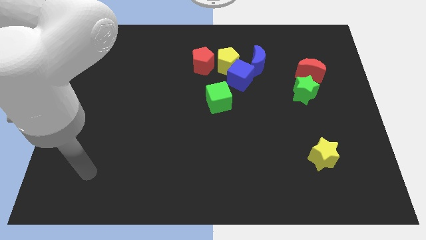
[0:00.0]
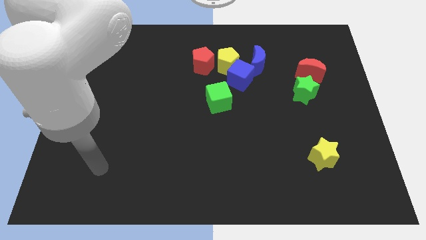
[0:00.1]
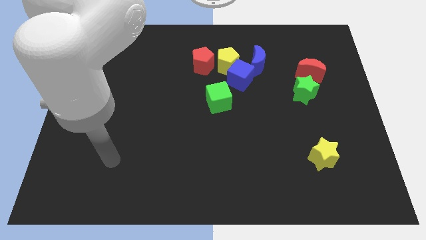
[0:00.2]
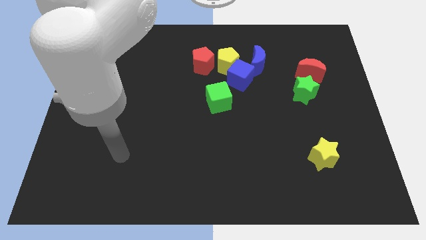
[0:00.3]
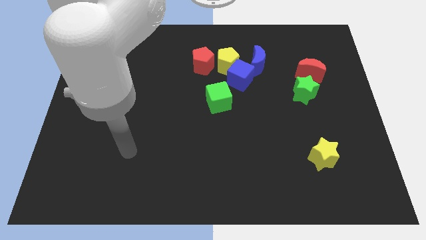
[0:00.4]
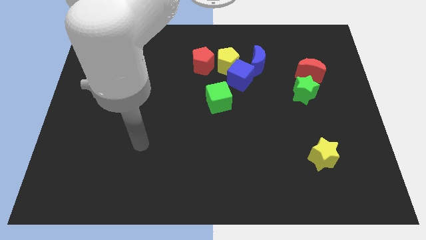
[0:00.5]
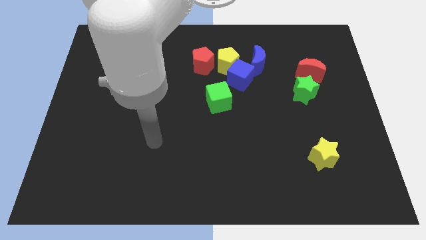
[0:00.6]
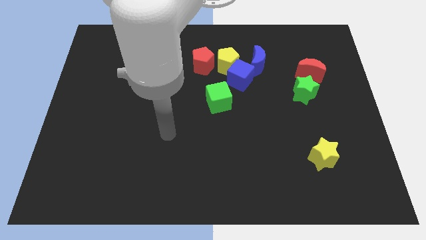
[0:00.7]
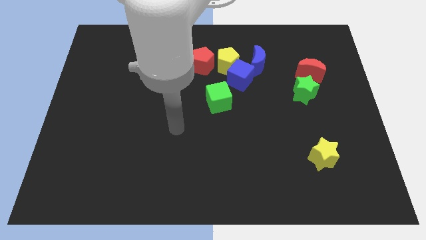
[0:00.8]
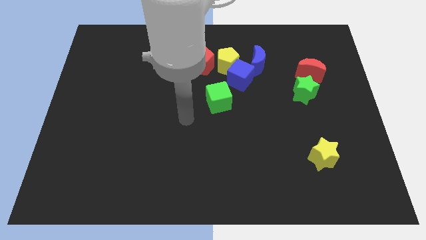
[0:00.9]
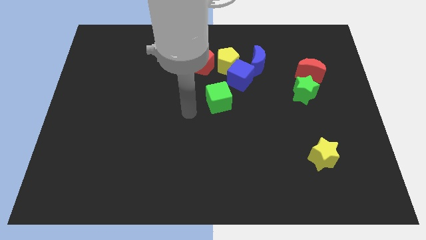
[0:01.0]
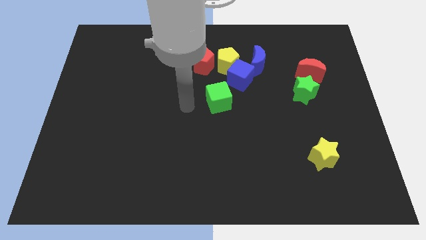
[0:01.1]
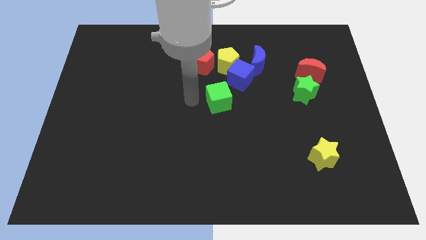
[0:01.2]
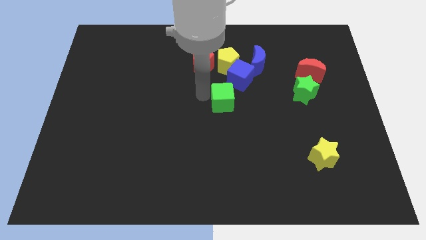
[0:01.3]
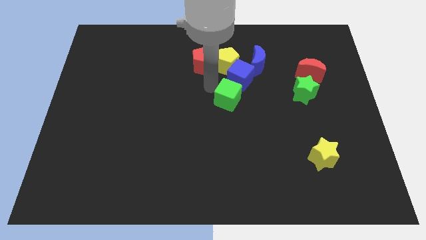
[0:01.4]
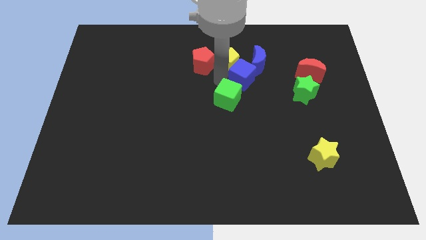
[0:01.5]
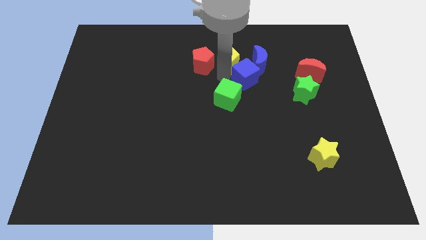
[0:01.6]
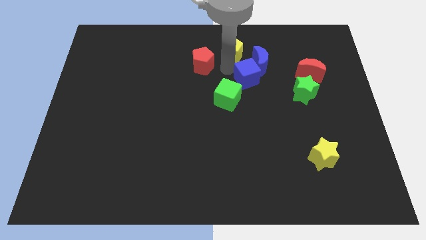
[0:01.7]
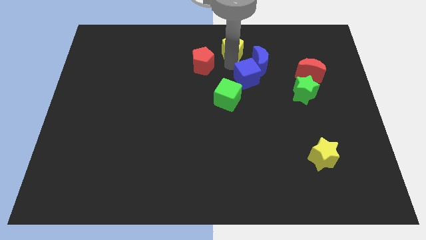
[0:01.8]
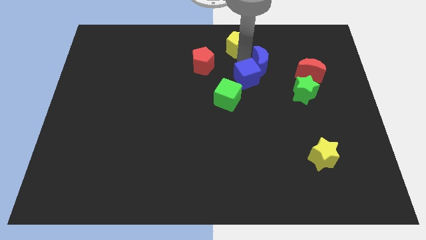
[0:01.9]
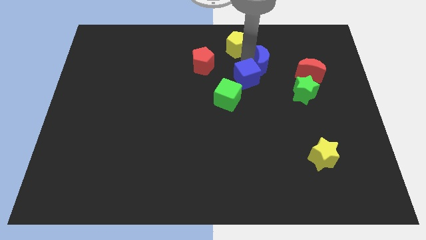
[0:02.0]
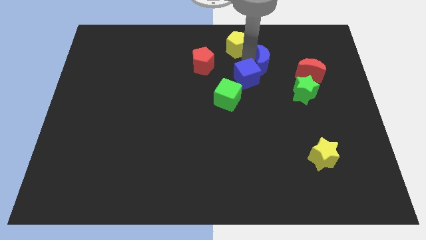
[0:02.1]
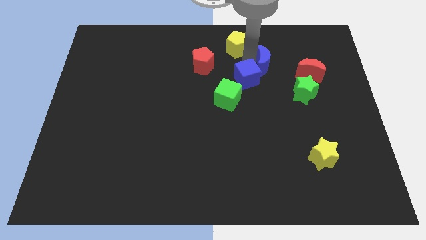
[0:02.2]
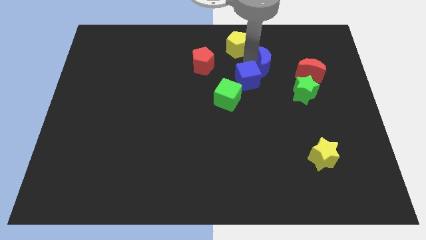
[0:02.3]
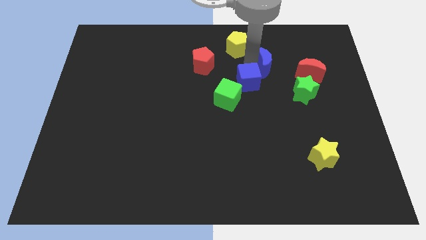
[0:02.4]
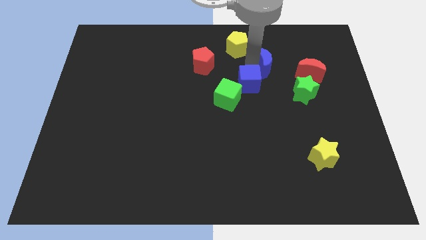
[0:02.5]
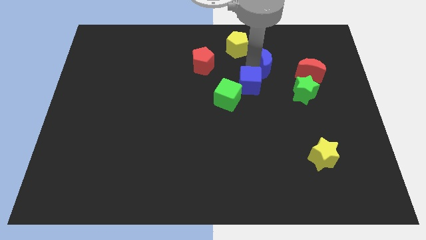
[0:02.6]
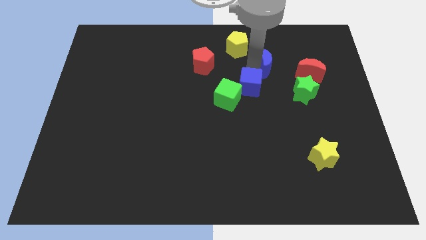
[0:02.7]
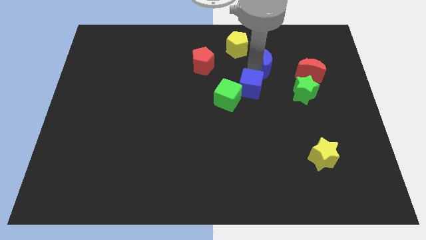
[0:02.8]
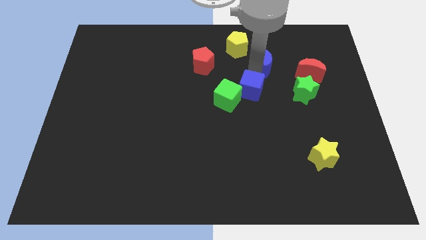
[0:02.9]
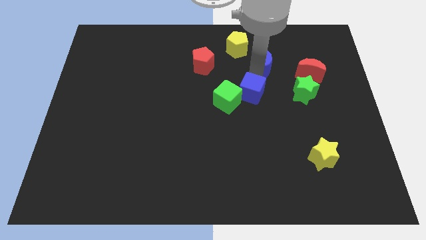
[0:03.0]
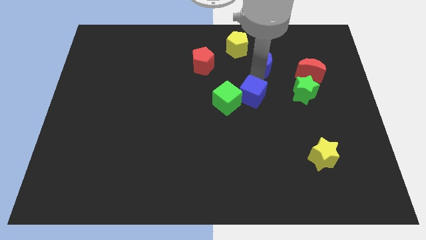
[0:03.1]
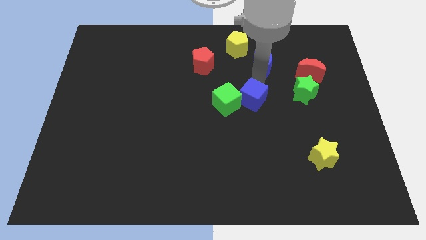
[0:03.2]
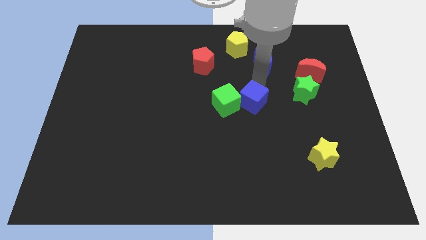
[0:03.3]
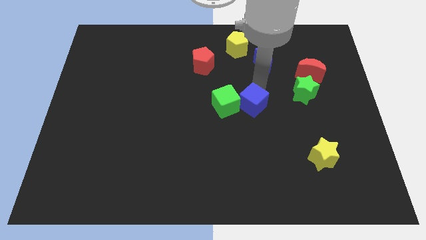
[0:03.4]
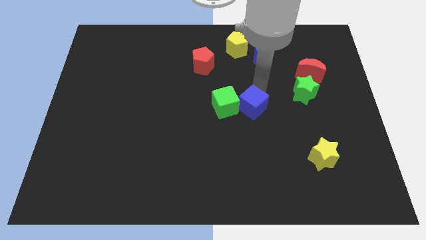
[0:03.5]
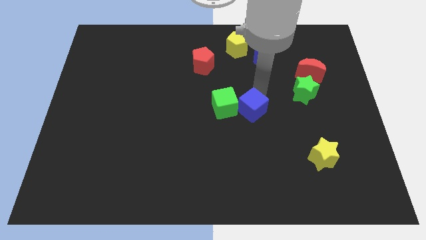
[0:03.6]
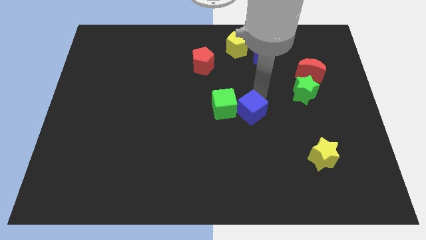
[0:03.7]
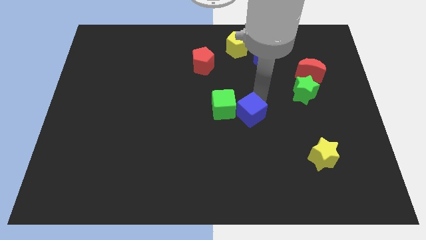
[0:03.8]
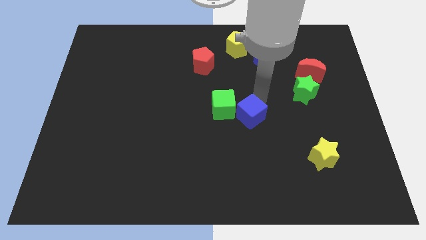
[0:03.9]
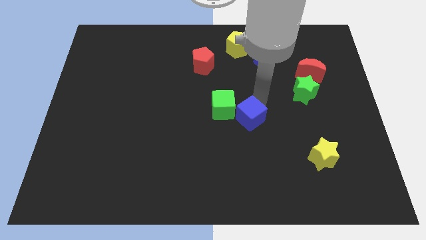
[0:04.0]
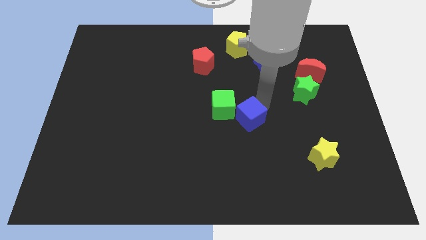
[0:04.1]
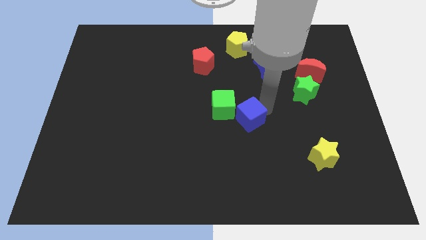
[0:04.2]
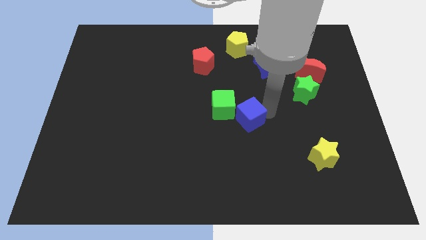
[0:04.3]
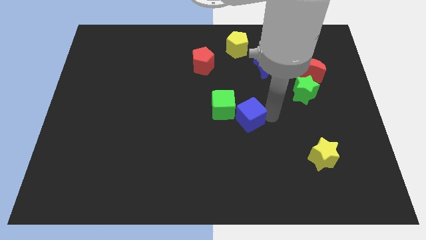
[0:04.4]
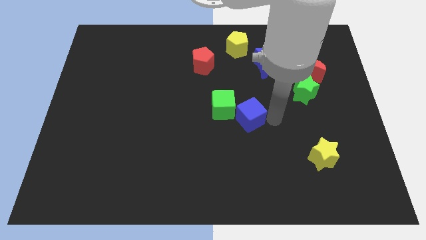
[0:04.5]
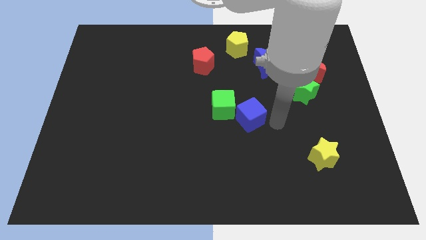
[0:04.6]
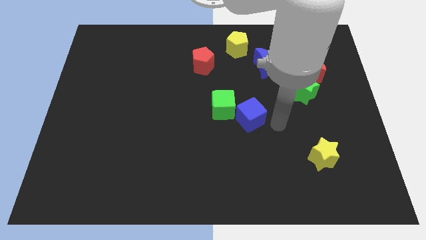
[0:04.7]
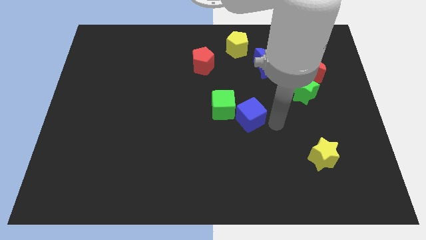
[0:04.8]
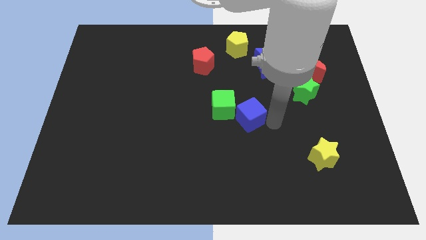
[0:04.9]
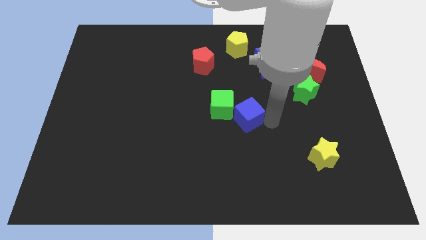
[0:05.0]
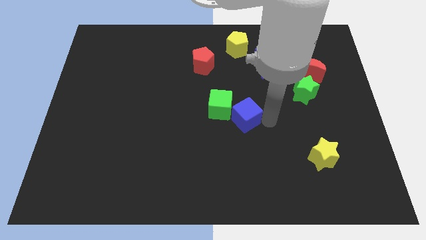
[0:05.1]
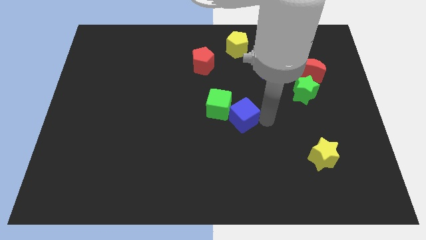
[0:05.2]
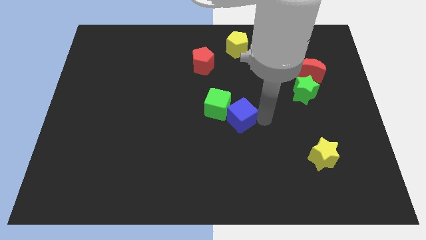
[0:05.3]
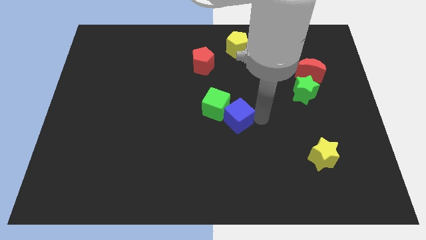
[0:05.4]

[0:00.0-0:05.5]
slide the blue cube downwards and then to the left a little

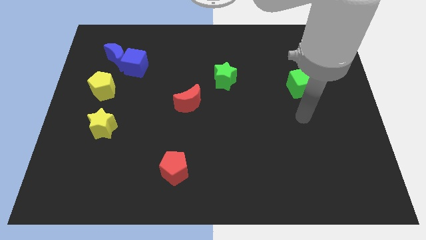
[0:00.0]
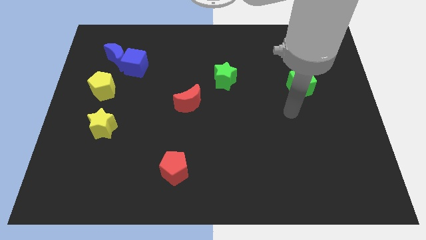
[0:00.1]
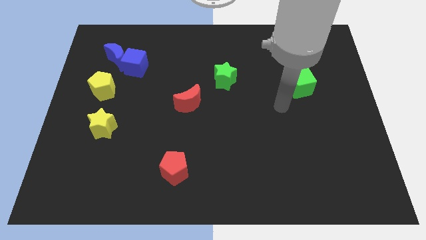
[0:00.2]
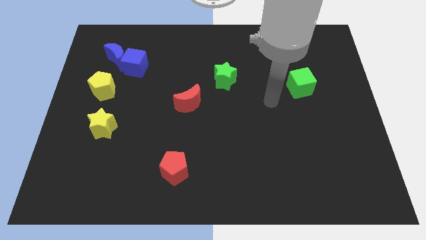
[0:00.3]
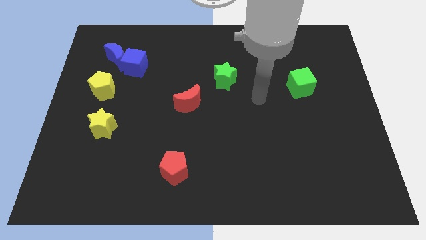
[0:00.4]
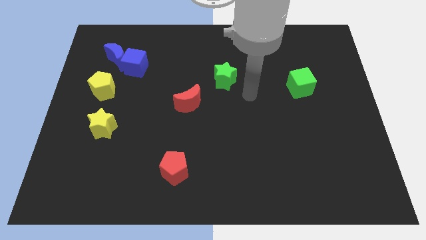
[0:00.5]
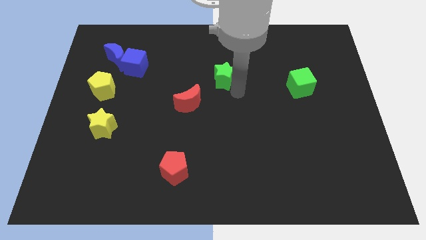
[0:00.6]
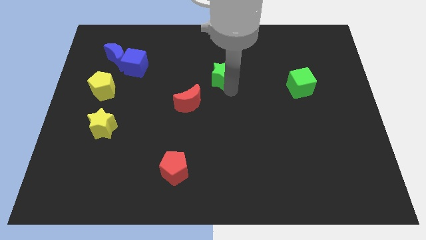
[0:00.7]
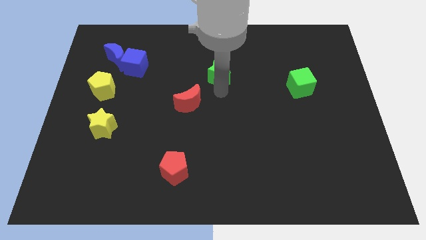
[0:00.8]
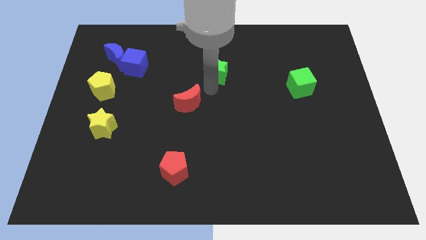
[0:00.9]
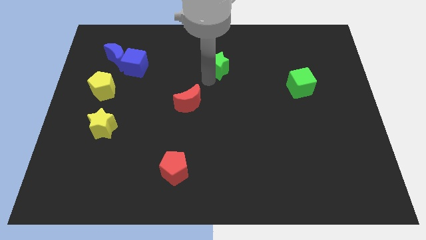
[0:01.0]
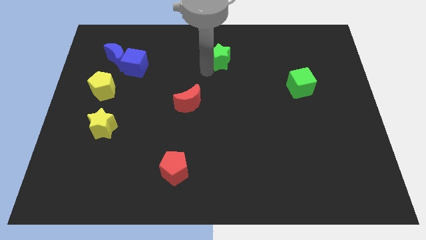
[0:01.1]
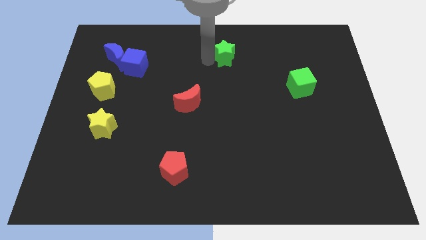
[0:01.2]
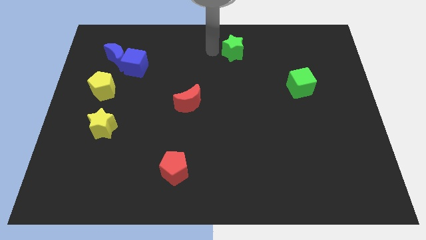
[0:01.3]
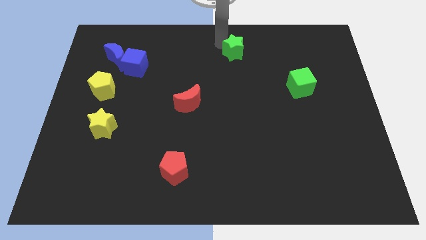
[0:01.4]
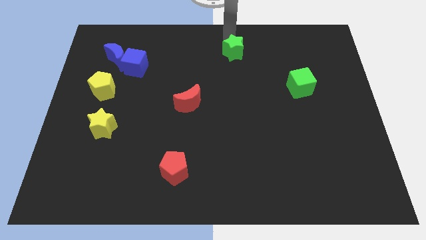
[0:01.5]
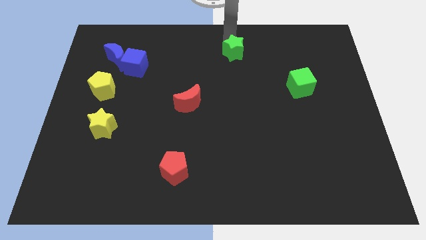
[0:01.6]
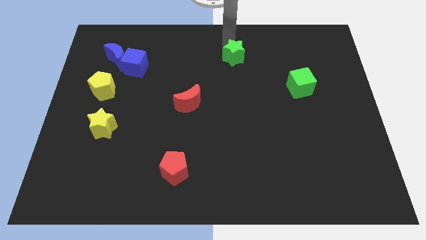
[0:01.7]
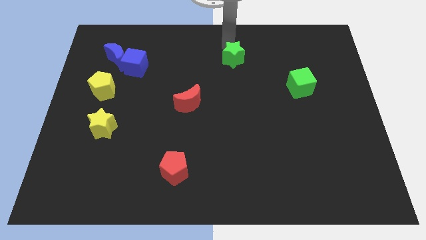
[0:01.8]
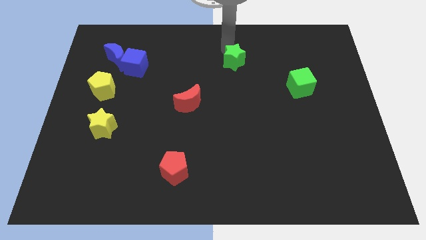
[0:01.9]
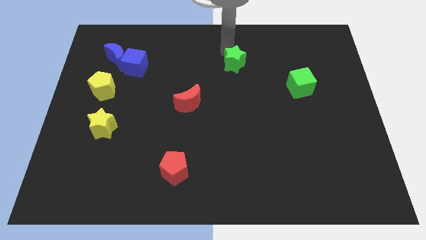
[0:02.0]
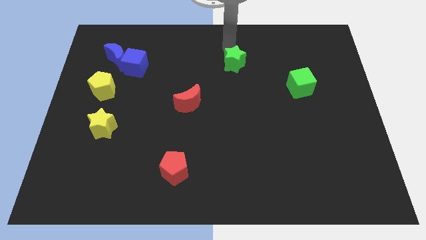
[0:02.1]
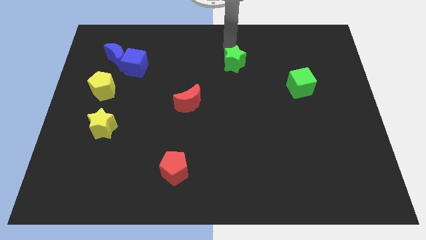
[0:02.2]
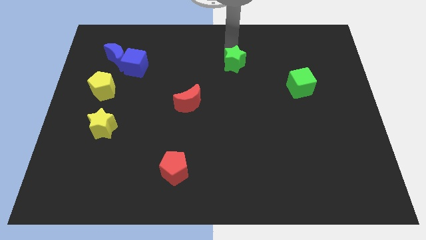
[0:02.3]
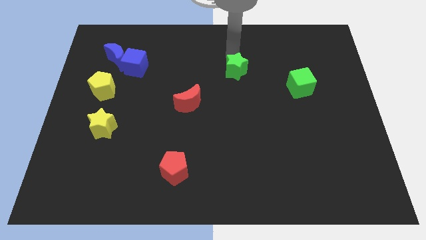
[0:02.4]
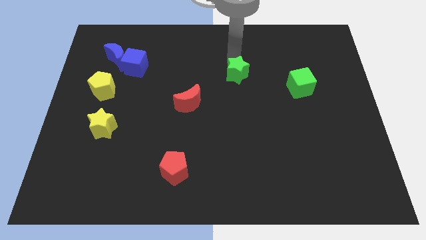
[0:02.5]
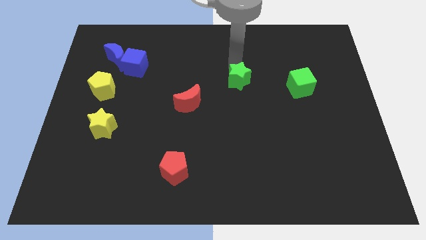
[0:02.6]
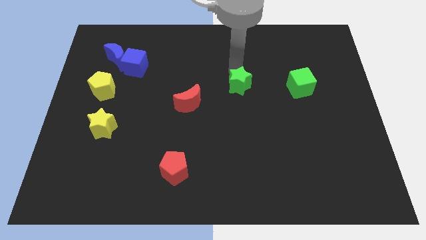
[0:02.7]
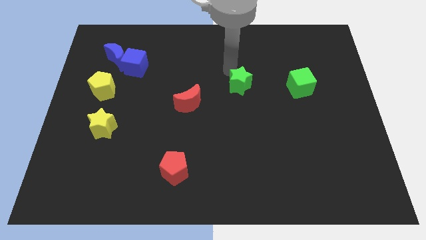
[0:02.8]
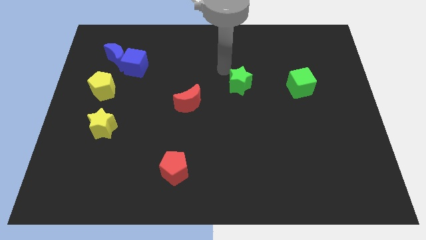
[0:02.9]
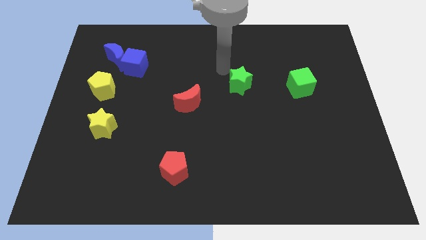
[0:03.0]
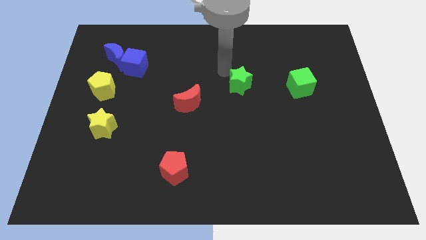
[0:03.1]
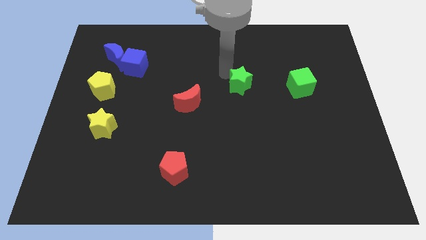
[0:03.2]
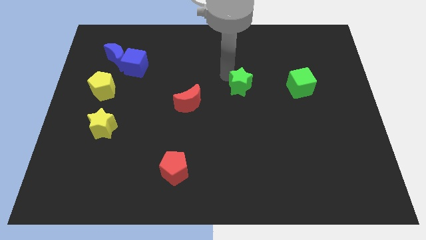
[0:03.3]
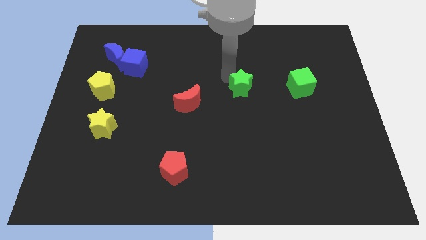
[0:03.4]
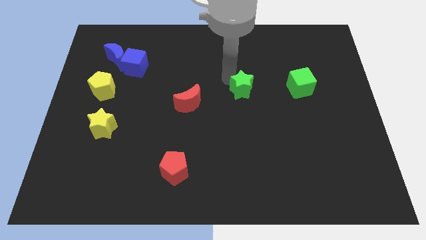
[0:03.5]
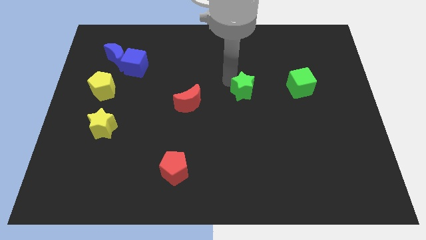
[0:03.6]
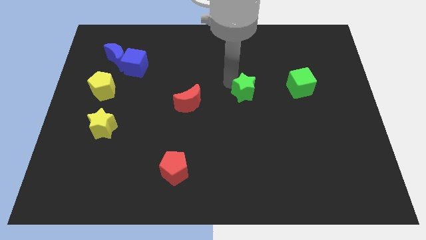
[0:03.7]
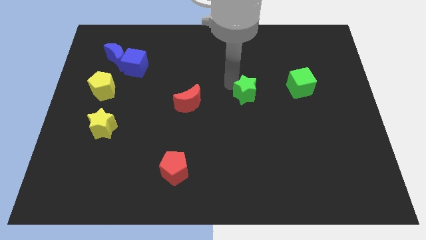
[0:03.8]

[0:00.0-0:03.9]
push the green star a bit downwards and right diagonally
